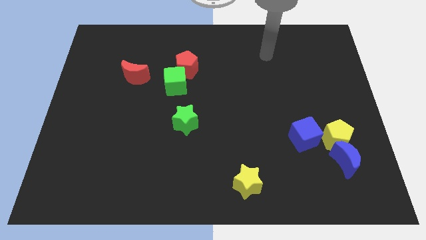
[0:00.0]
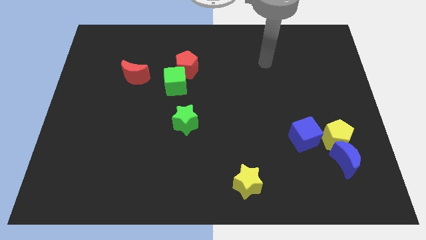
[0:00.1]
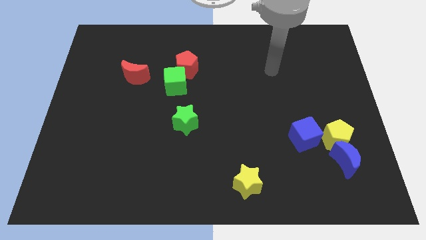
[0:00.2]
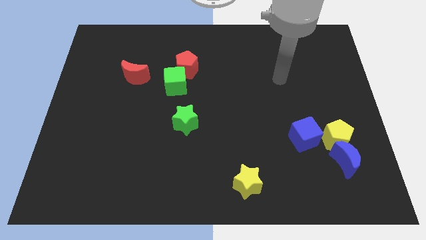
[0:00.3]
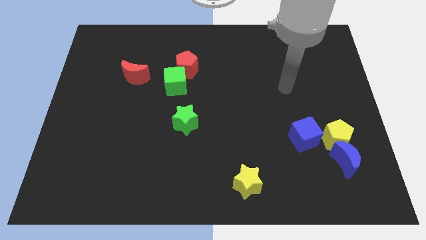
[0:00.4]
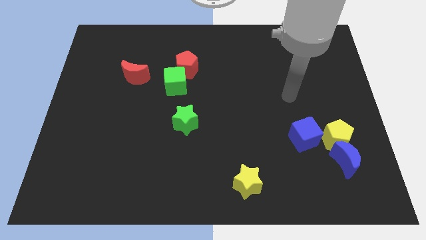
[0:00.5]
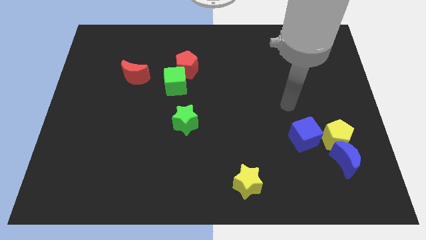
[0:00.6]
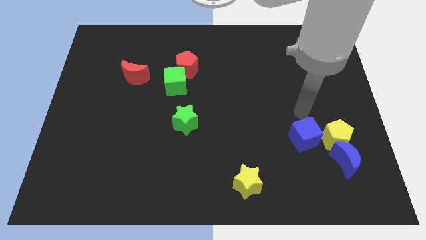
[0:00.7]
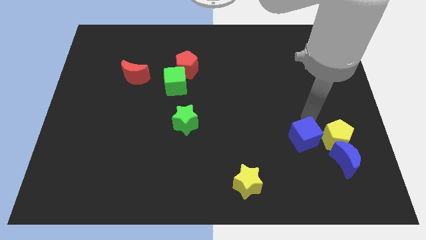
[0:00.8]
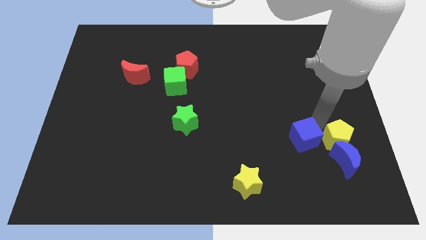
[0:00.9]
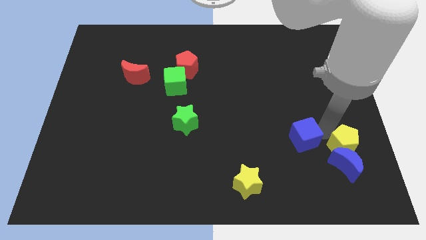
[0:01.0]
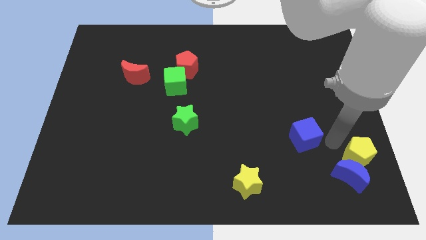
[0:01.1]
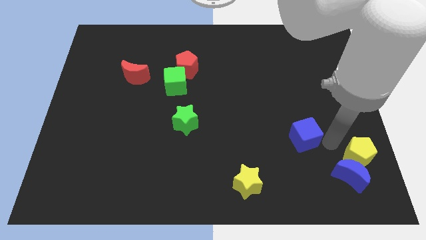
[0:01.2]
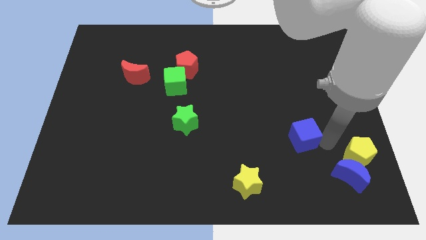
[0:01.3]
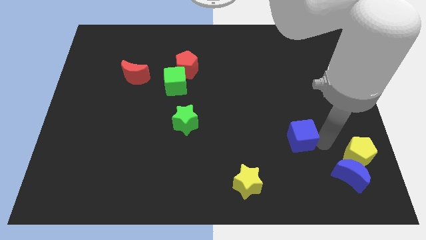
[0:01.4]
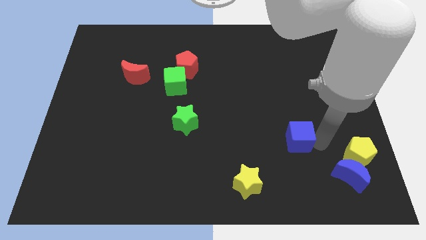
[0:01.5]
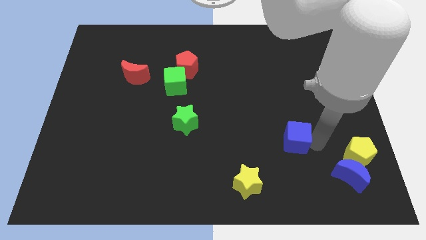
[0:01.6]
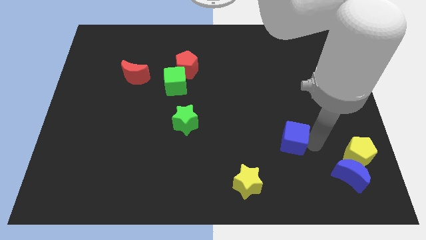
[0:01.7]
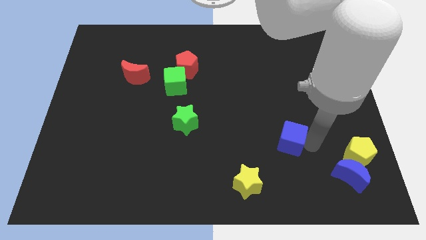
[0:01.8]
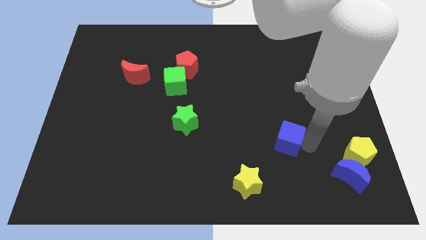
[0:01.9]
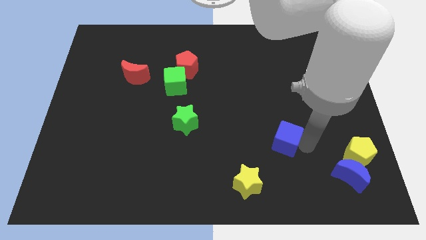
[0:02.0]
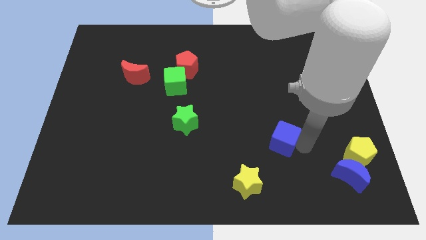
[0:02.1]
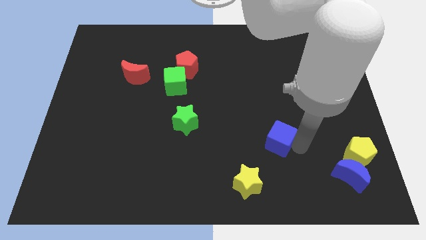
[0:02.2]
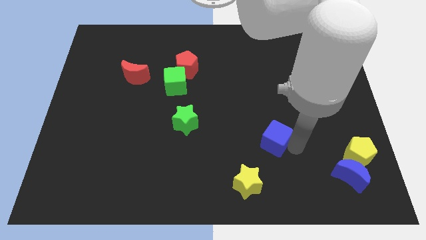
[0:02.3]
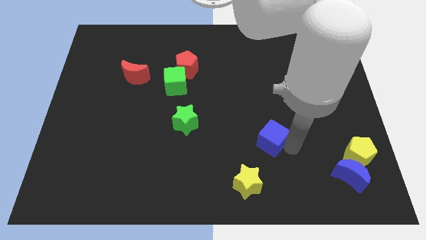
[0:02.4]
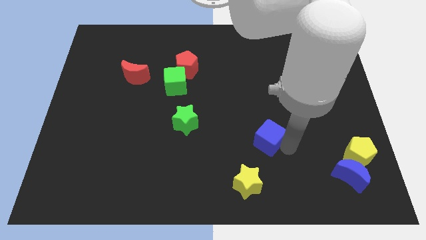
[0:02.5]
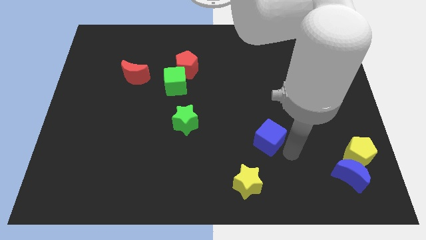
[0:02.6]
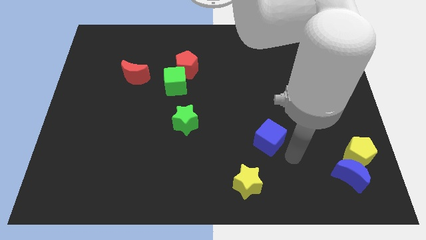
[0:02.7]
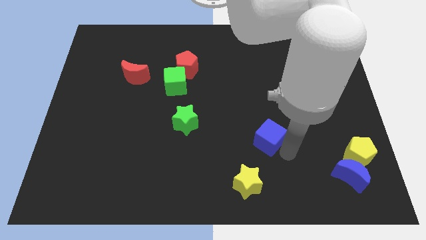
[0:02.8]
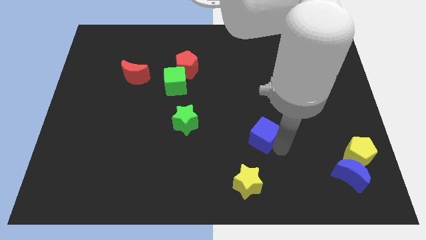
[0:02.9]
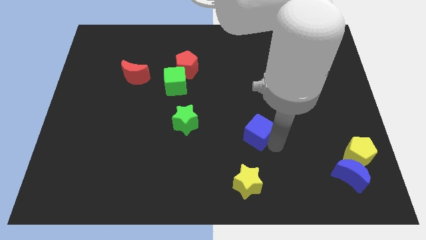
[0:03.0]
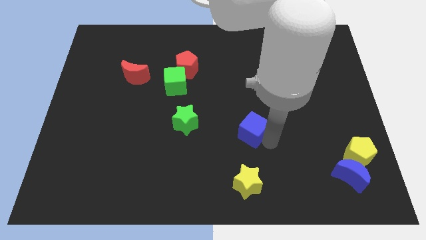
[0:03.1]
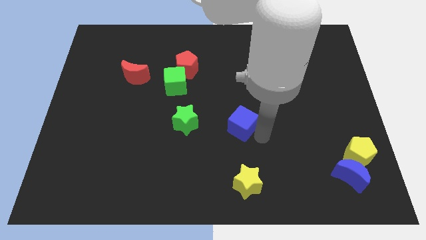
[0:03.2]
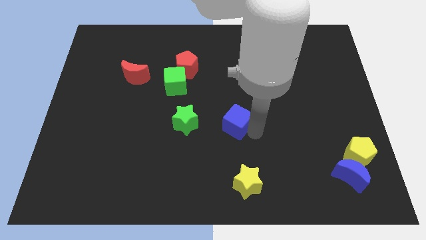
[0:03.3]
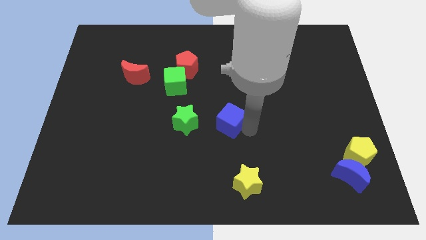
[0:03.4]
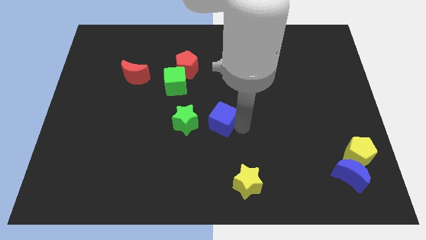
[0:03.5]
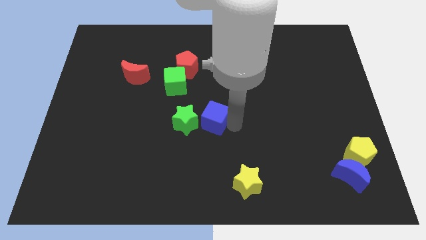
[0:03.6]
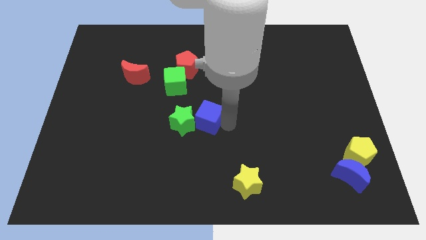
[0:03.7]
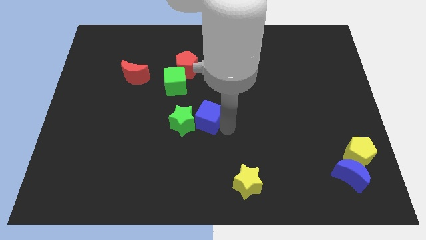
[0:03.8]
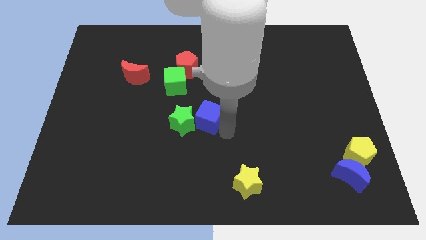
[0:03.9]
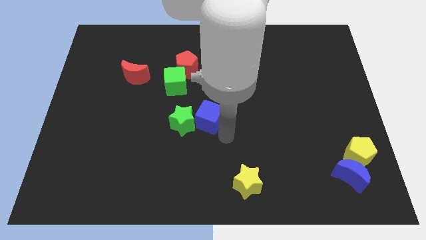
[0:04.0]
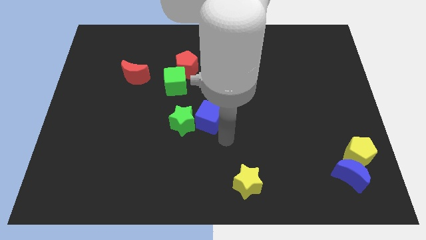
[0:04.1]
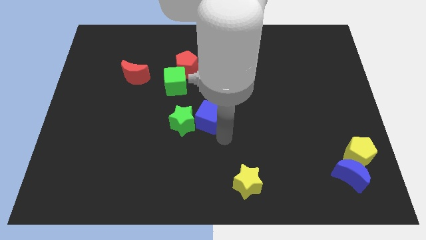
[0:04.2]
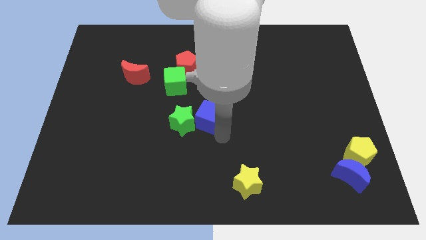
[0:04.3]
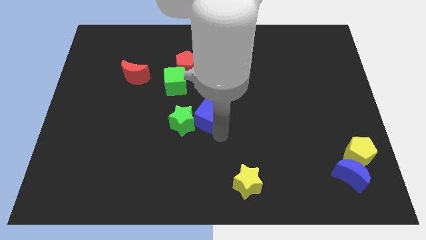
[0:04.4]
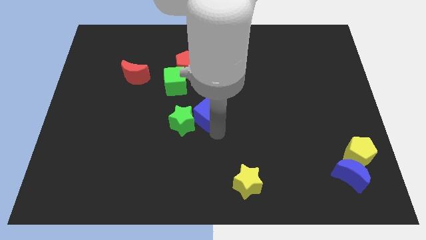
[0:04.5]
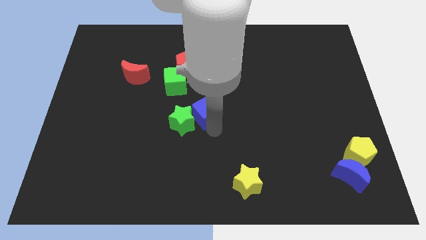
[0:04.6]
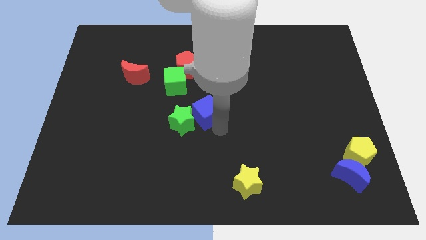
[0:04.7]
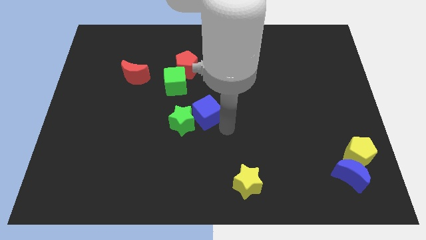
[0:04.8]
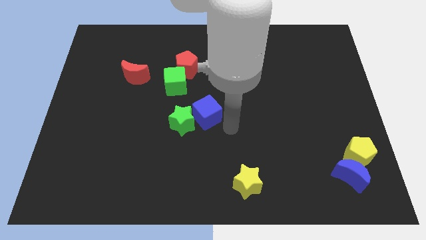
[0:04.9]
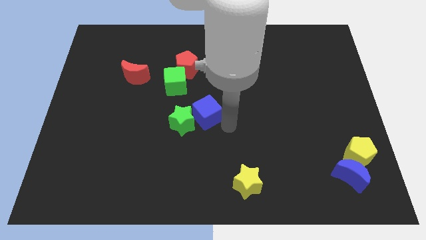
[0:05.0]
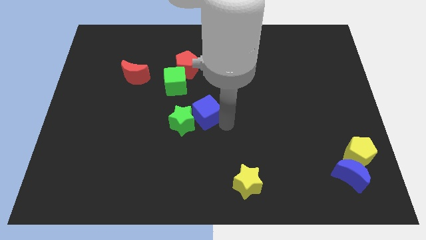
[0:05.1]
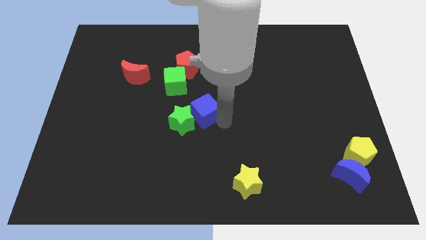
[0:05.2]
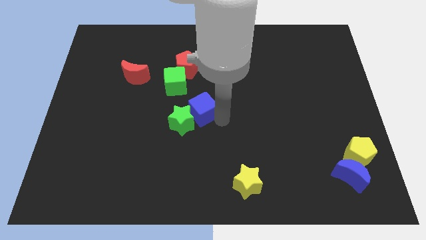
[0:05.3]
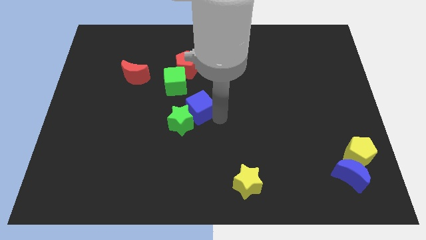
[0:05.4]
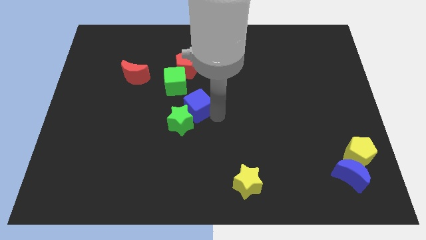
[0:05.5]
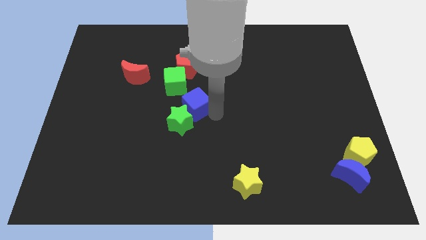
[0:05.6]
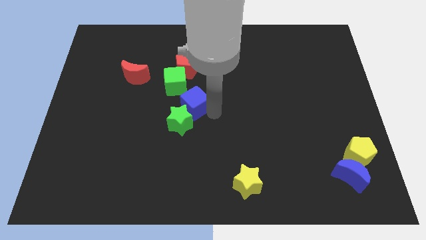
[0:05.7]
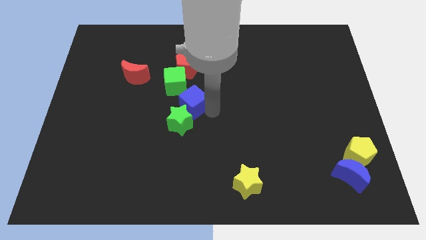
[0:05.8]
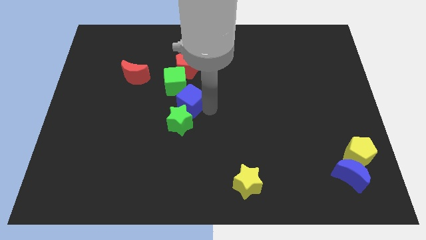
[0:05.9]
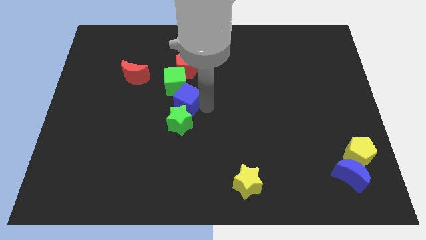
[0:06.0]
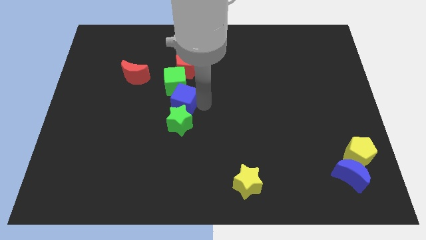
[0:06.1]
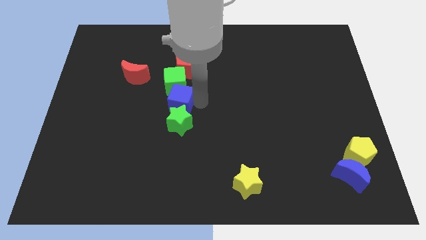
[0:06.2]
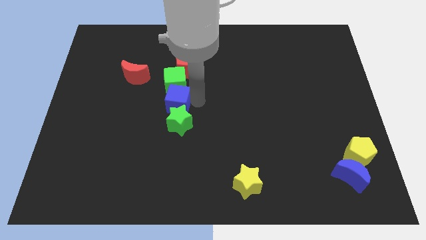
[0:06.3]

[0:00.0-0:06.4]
move the blue cube to the bottom left of the green cube
